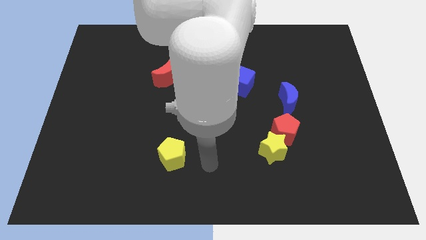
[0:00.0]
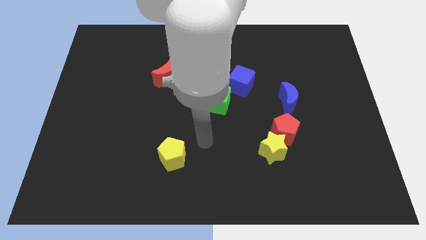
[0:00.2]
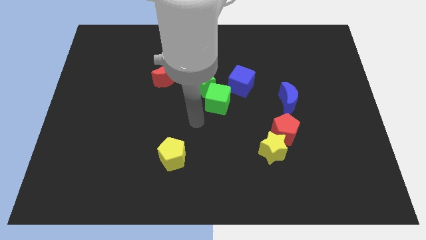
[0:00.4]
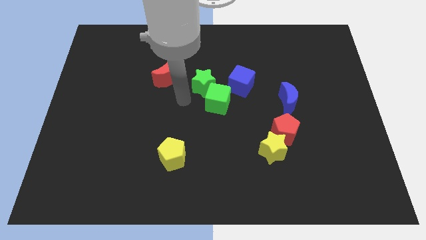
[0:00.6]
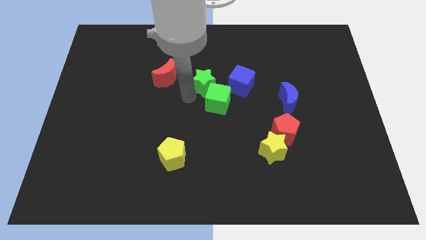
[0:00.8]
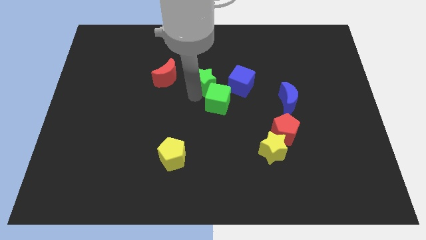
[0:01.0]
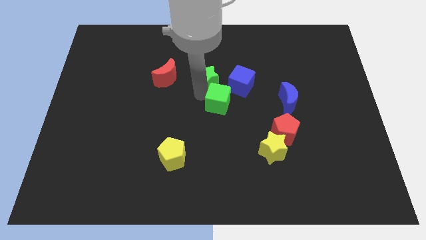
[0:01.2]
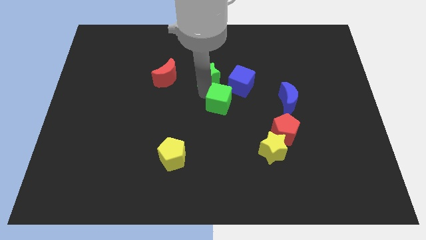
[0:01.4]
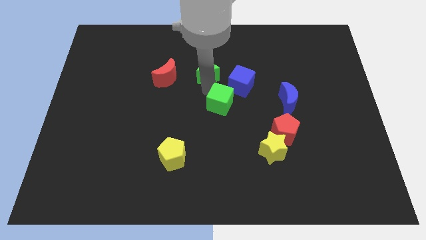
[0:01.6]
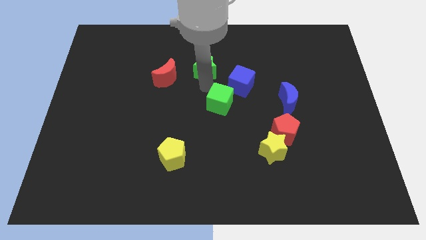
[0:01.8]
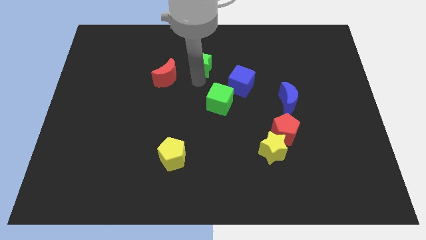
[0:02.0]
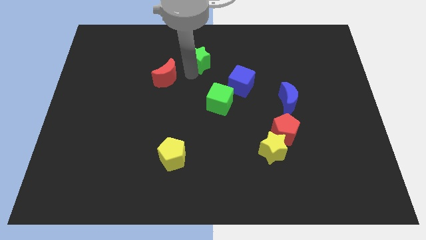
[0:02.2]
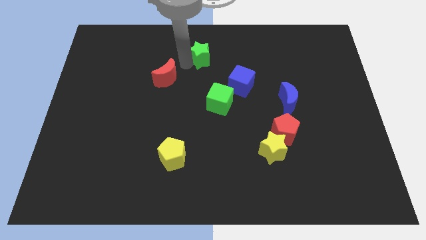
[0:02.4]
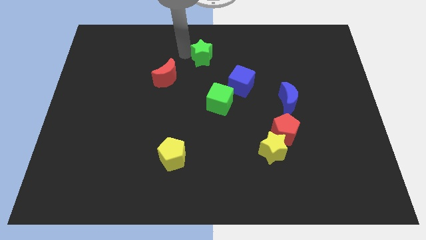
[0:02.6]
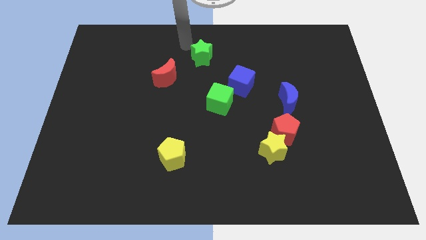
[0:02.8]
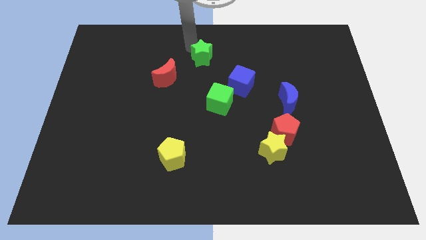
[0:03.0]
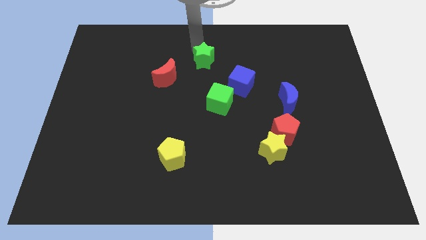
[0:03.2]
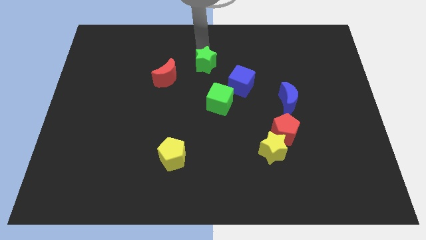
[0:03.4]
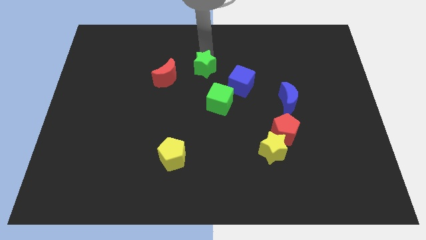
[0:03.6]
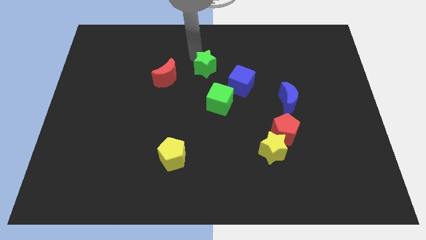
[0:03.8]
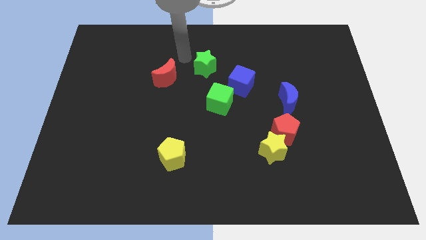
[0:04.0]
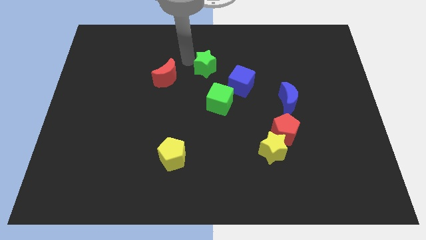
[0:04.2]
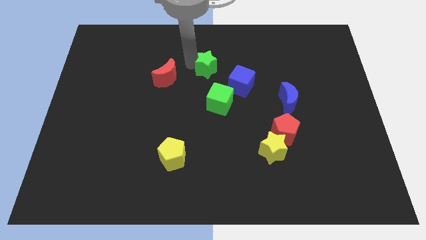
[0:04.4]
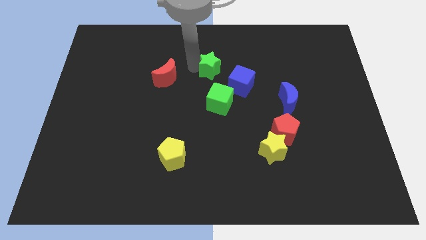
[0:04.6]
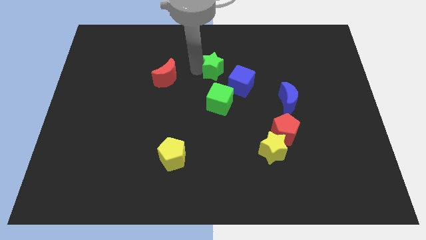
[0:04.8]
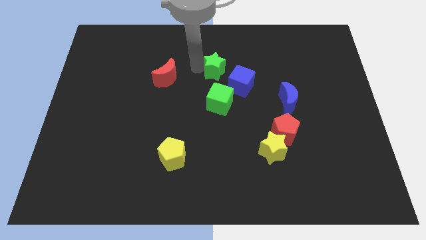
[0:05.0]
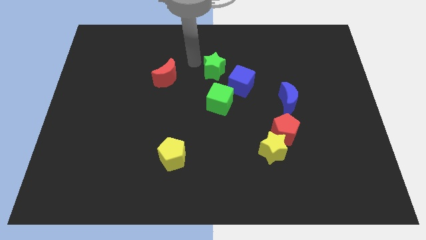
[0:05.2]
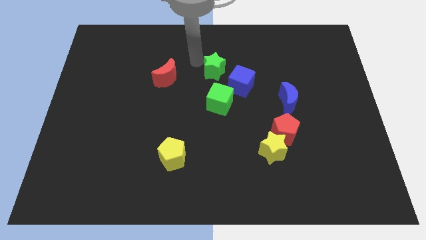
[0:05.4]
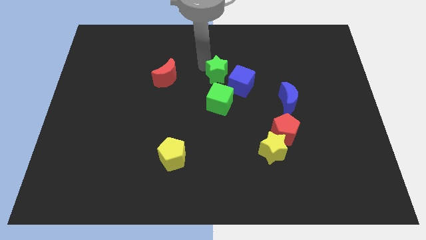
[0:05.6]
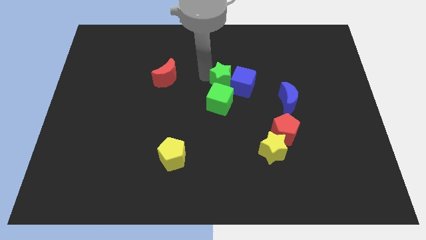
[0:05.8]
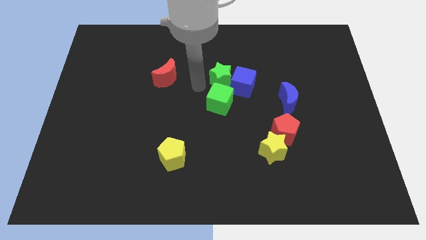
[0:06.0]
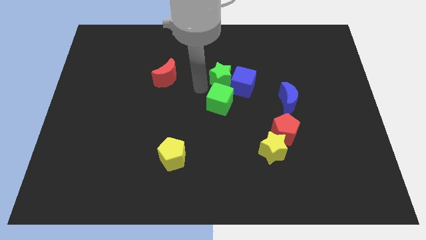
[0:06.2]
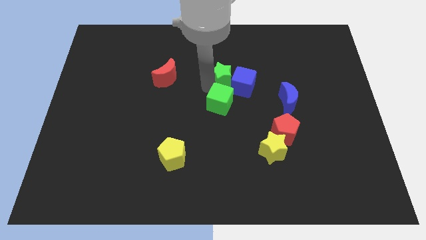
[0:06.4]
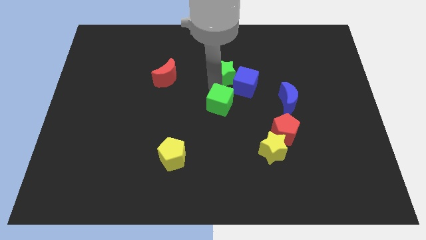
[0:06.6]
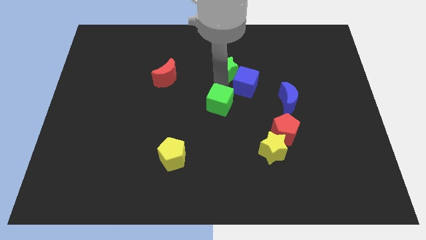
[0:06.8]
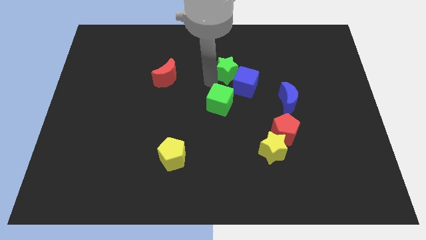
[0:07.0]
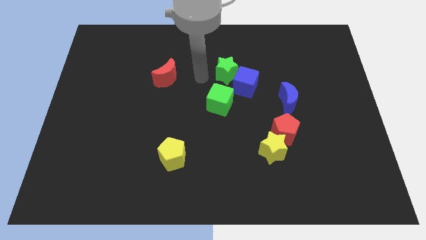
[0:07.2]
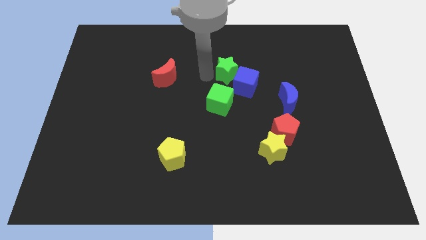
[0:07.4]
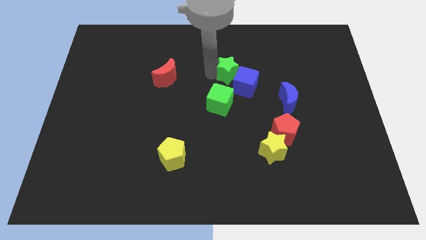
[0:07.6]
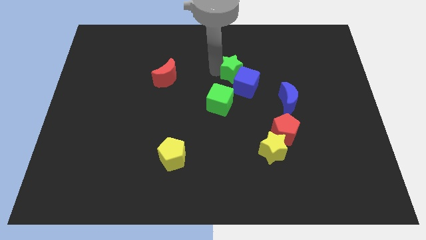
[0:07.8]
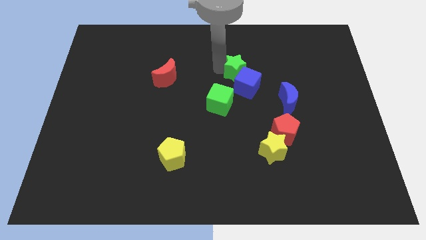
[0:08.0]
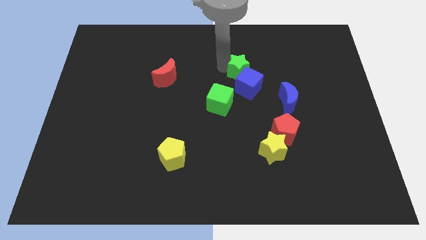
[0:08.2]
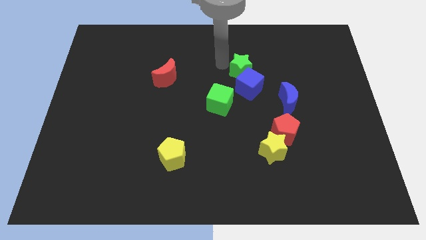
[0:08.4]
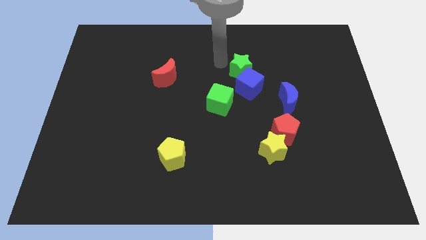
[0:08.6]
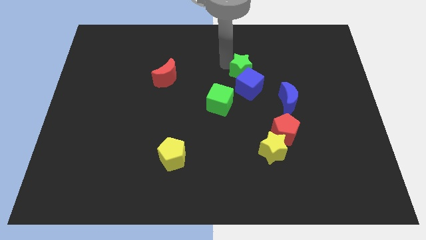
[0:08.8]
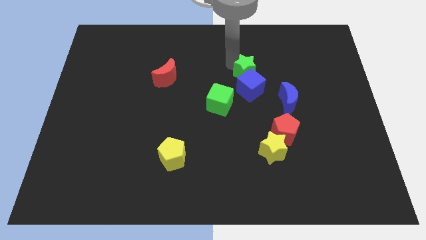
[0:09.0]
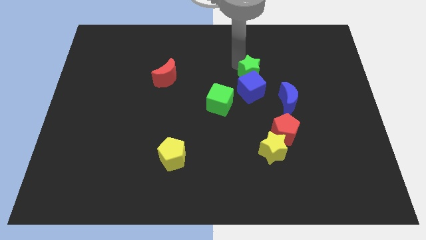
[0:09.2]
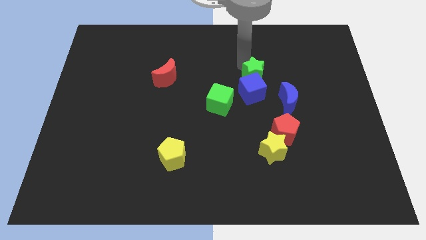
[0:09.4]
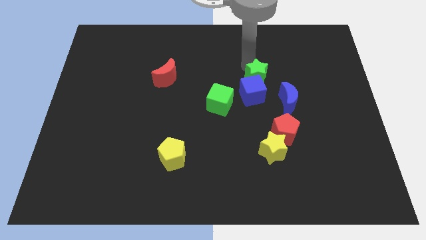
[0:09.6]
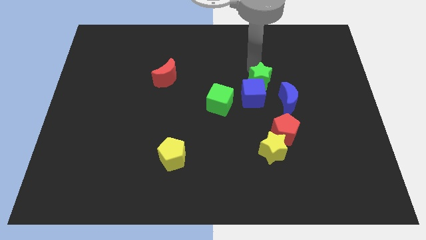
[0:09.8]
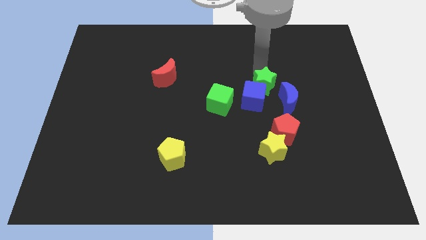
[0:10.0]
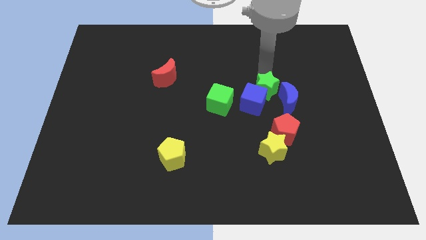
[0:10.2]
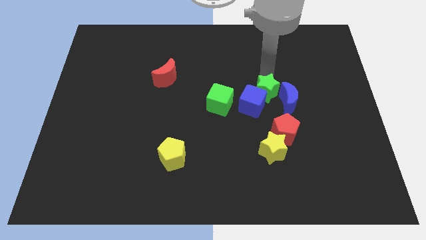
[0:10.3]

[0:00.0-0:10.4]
push the green star next to the blue moon

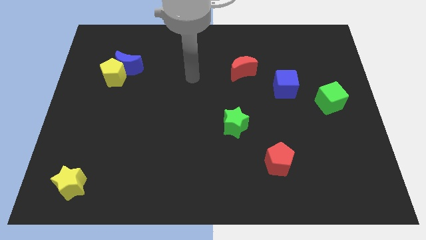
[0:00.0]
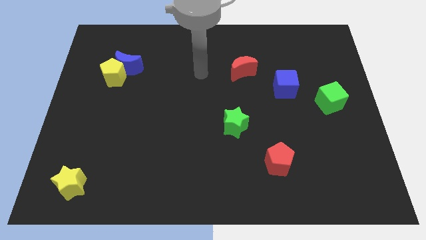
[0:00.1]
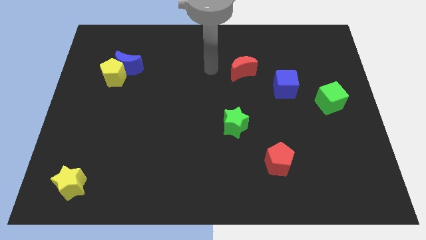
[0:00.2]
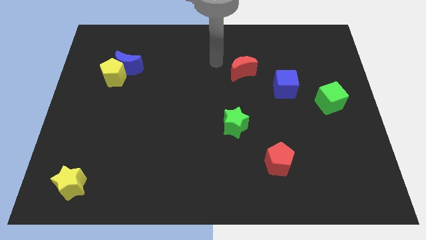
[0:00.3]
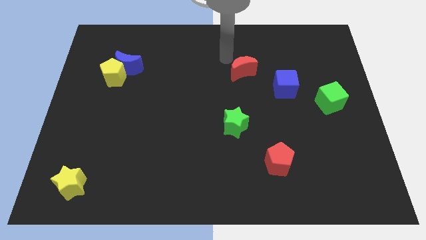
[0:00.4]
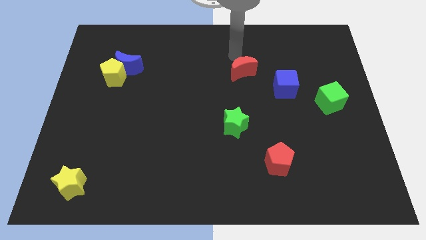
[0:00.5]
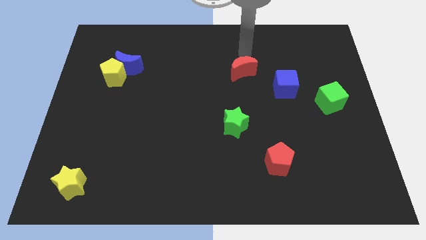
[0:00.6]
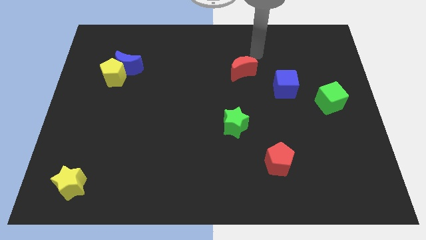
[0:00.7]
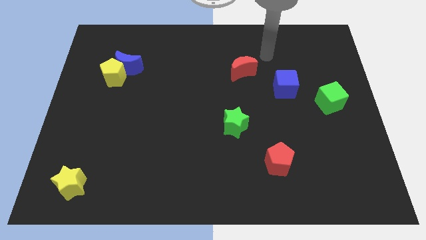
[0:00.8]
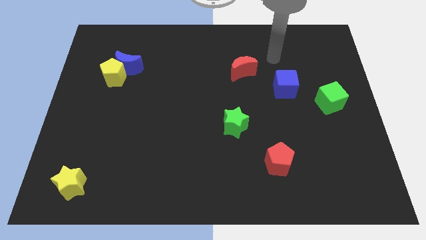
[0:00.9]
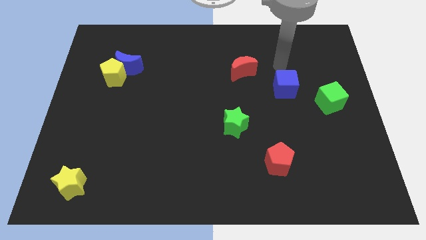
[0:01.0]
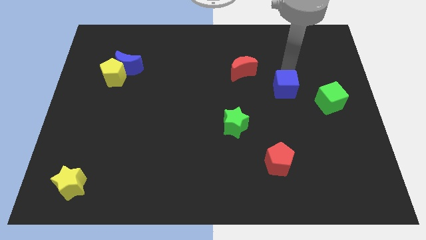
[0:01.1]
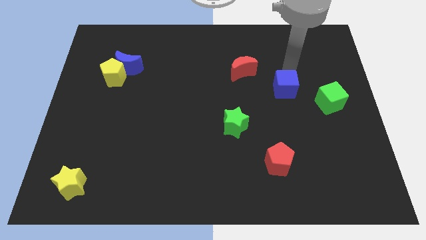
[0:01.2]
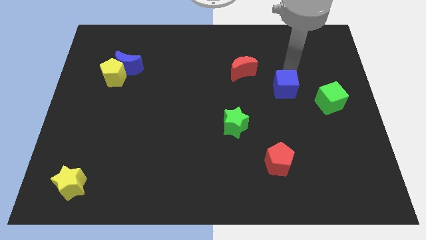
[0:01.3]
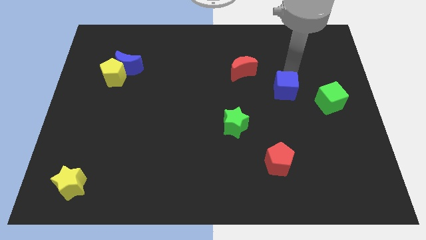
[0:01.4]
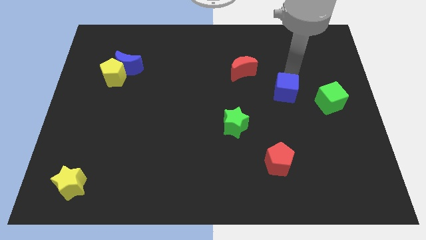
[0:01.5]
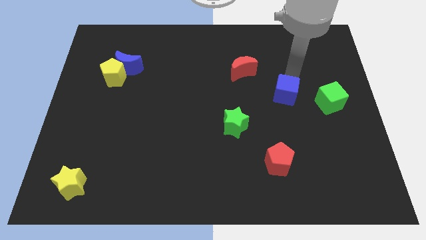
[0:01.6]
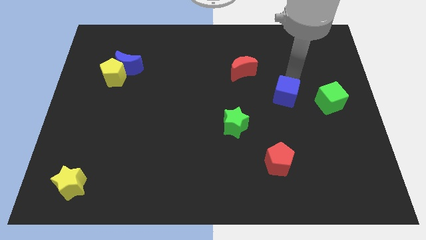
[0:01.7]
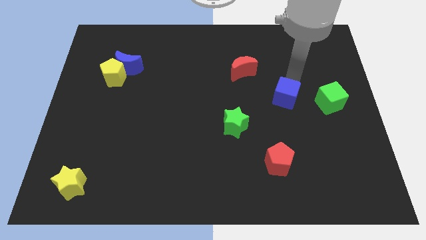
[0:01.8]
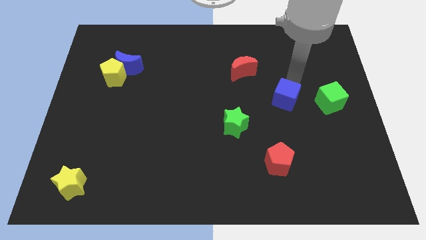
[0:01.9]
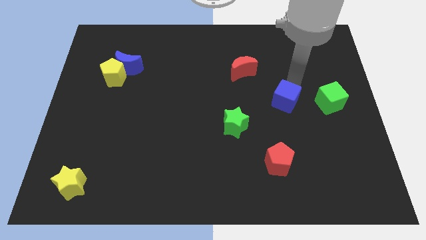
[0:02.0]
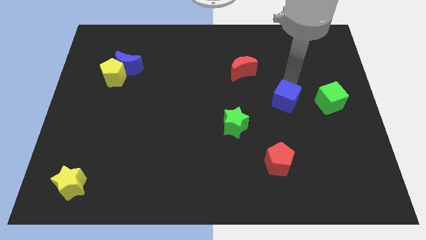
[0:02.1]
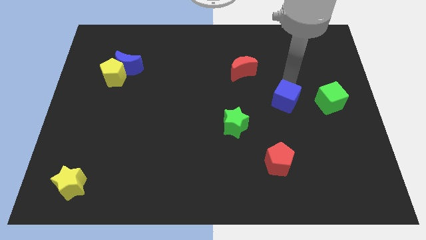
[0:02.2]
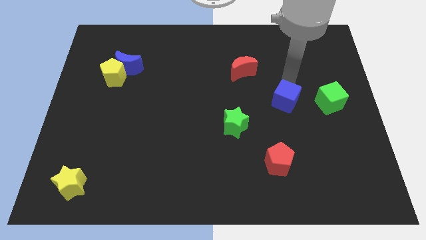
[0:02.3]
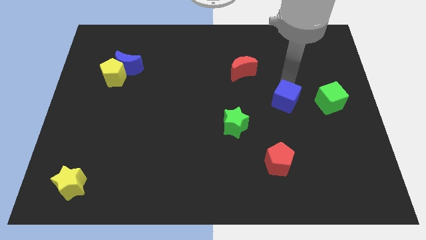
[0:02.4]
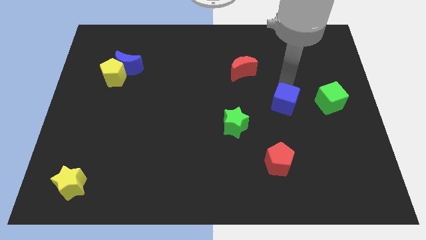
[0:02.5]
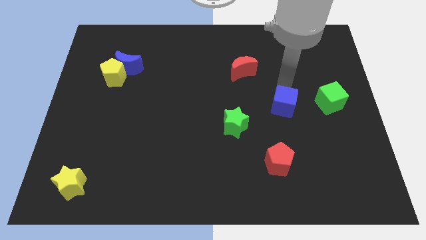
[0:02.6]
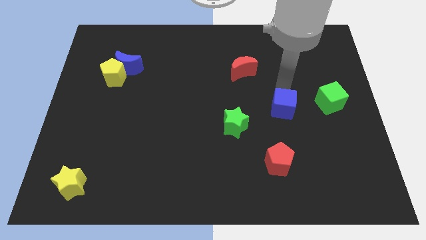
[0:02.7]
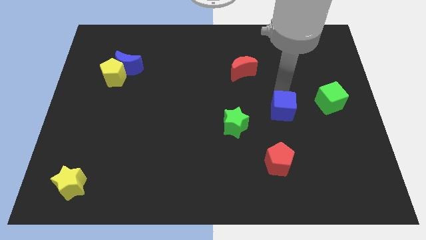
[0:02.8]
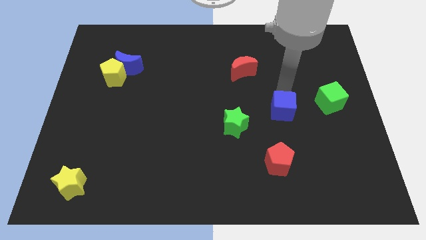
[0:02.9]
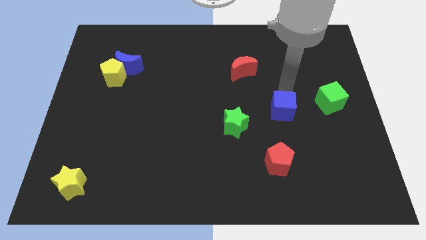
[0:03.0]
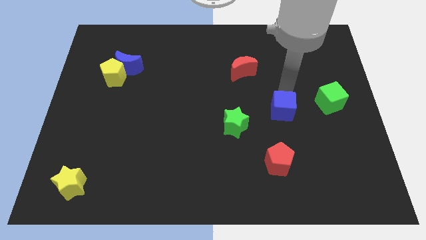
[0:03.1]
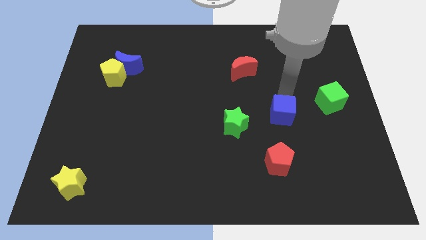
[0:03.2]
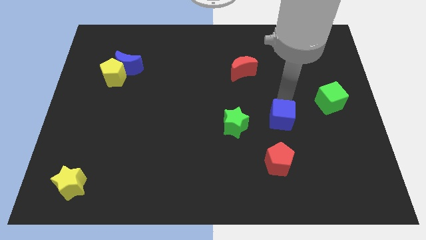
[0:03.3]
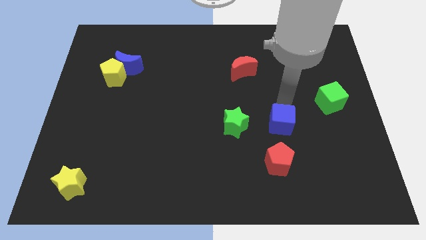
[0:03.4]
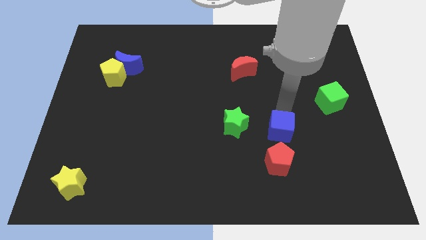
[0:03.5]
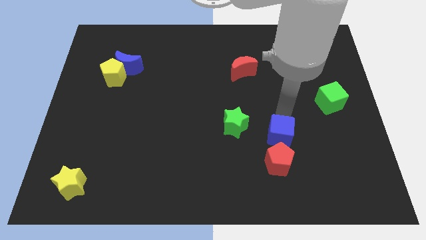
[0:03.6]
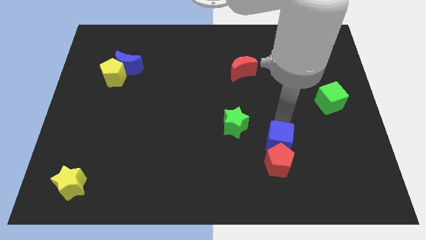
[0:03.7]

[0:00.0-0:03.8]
push the blue cube close to the red pentagon
